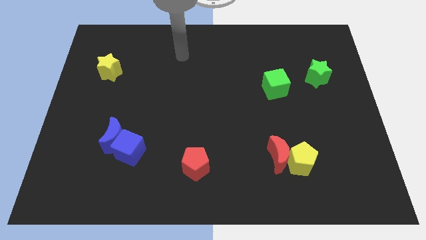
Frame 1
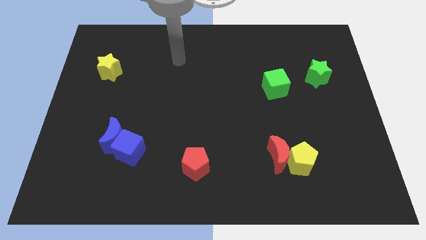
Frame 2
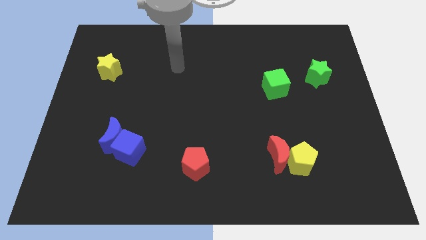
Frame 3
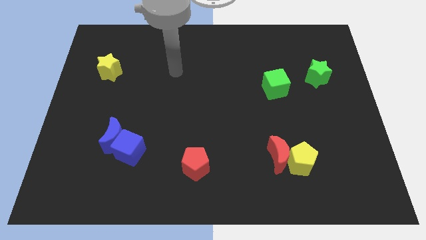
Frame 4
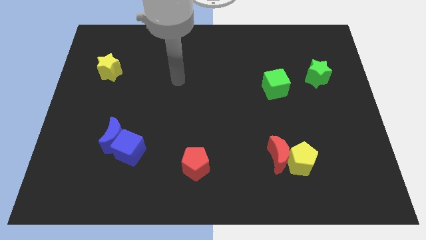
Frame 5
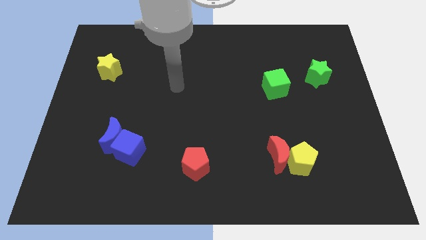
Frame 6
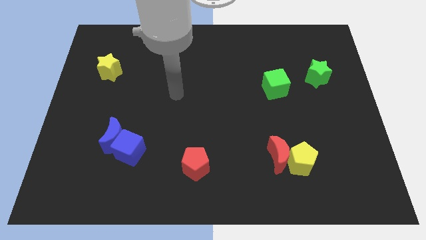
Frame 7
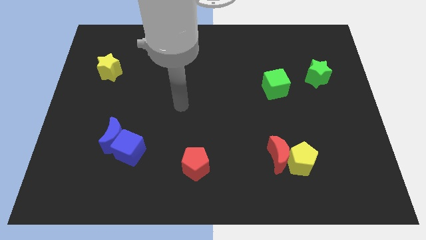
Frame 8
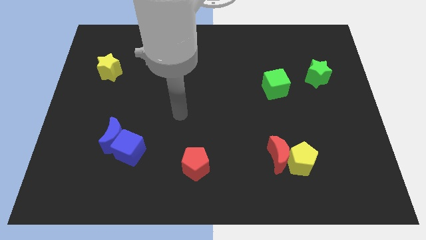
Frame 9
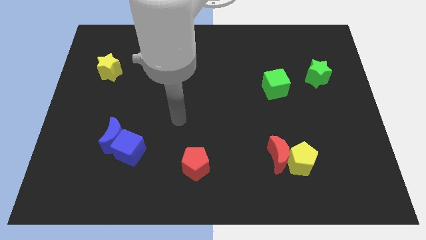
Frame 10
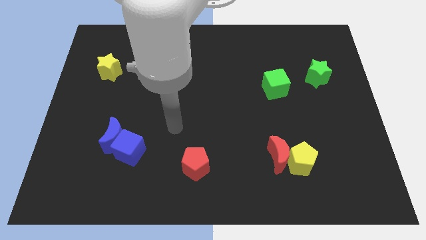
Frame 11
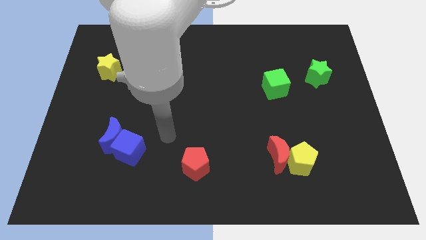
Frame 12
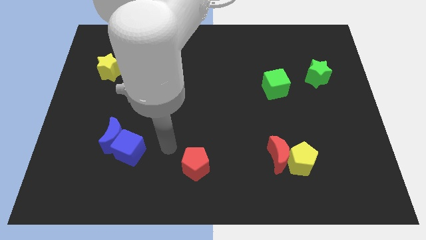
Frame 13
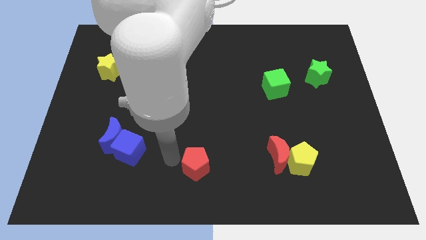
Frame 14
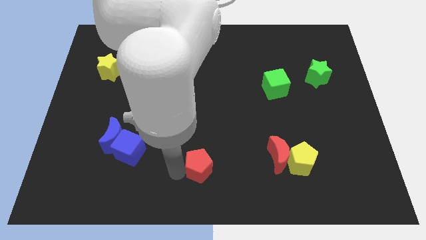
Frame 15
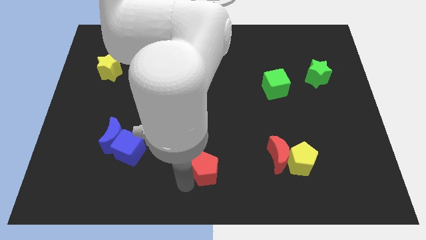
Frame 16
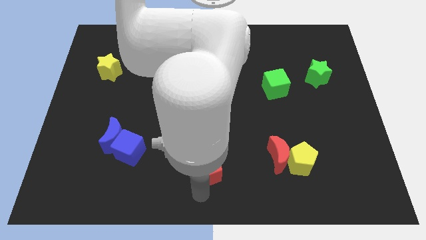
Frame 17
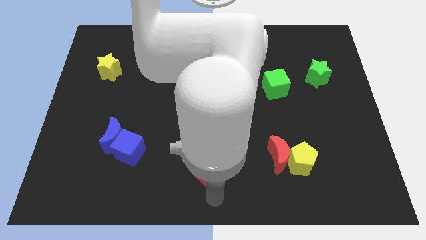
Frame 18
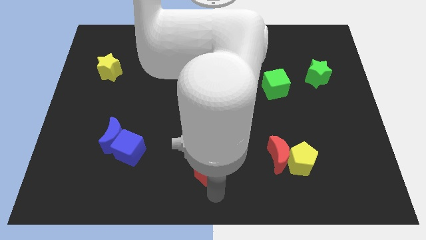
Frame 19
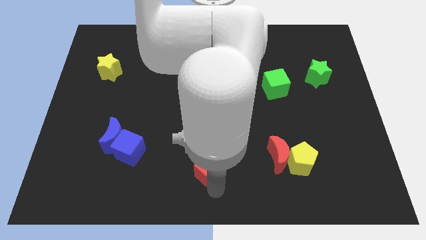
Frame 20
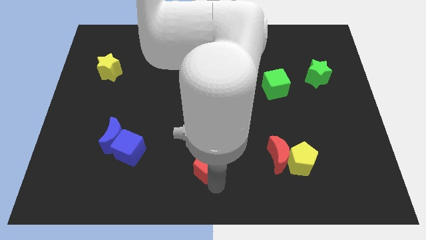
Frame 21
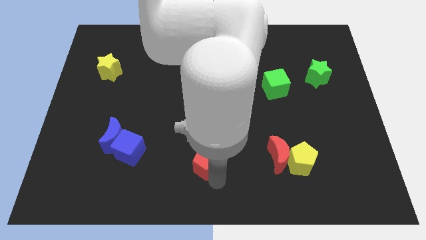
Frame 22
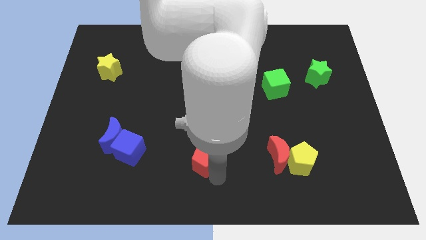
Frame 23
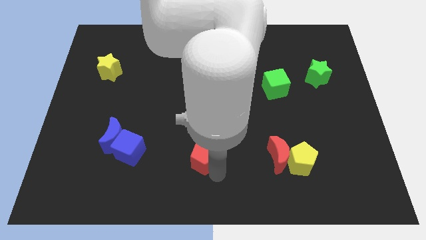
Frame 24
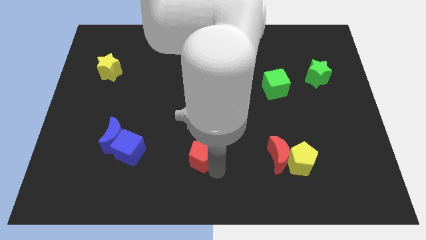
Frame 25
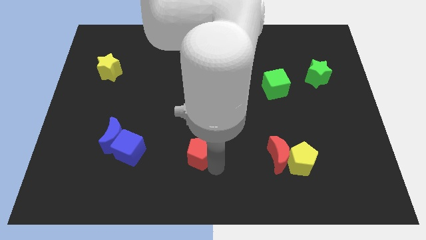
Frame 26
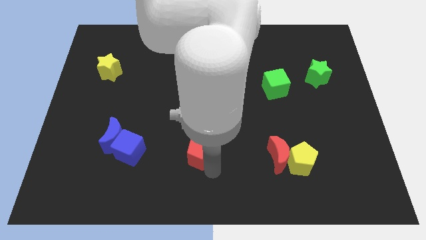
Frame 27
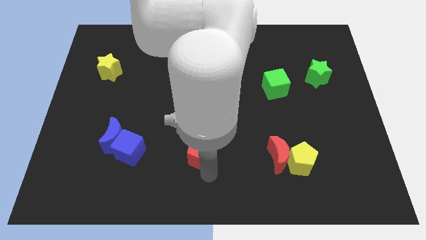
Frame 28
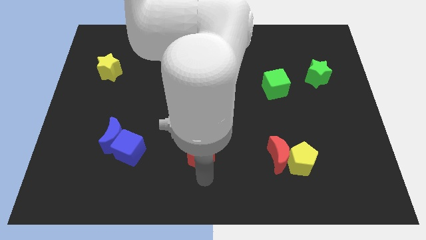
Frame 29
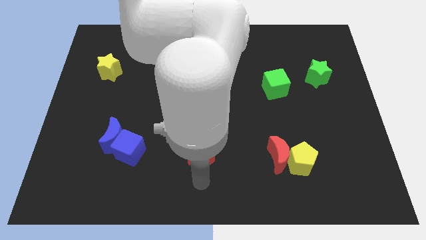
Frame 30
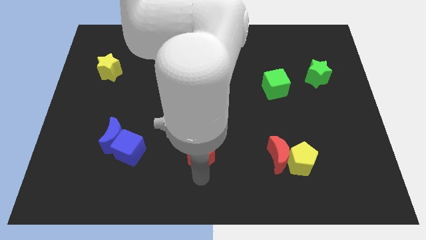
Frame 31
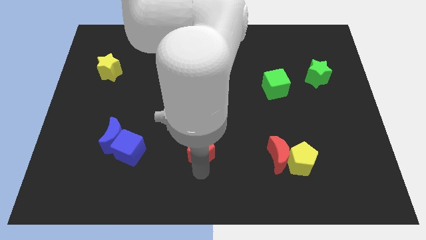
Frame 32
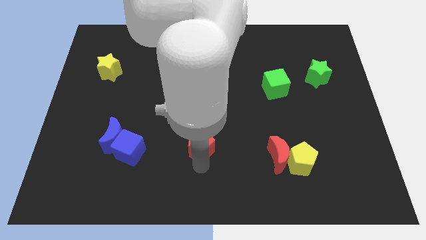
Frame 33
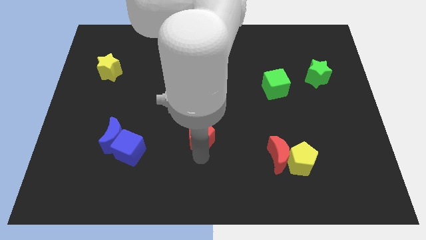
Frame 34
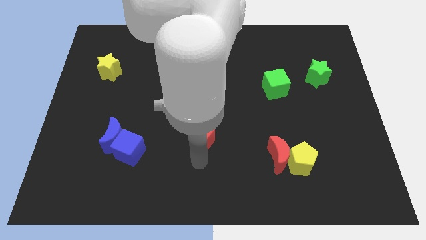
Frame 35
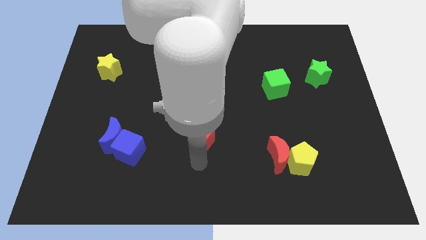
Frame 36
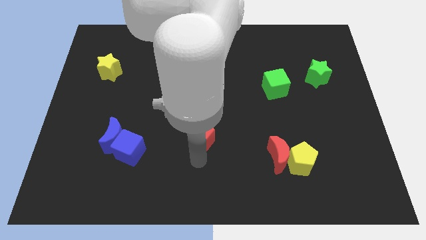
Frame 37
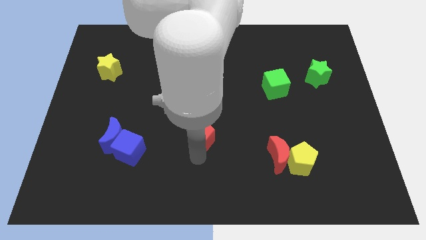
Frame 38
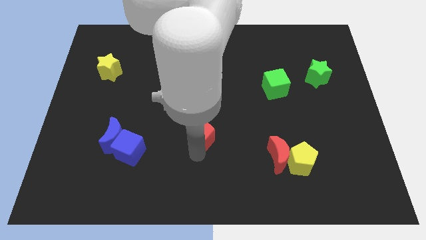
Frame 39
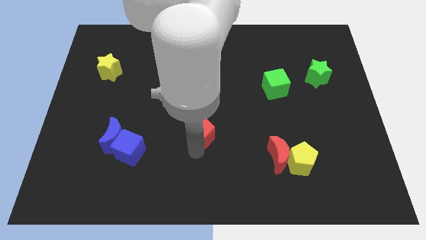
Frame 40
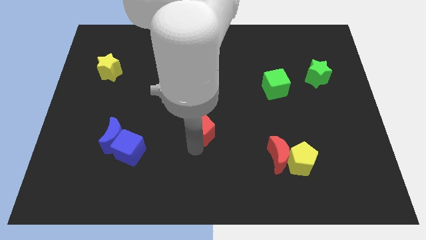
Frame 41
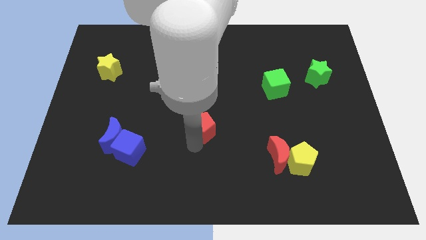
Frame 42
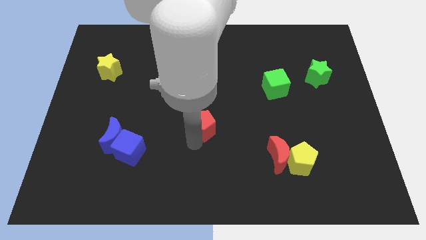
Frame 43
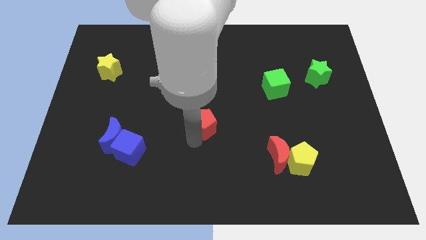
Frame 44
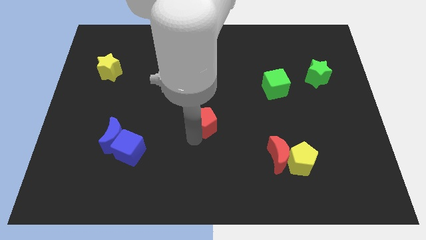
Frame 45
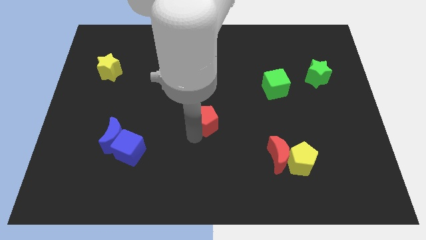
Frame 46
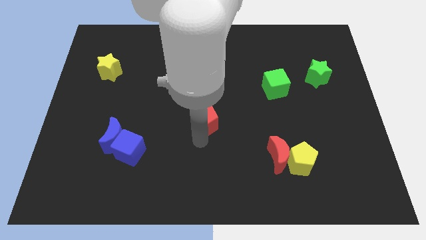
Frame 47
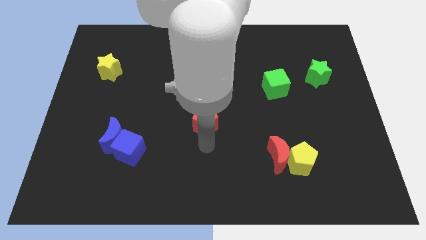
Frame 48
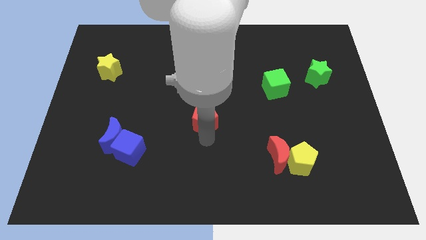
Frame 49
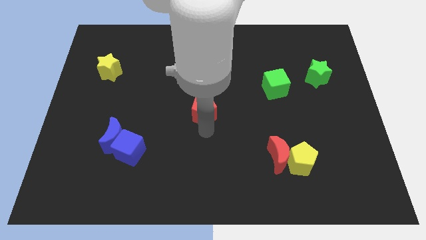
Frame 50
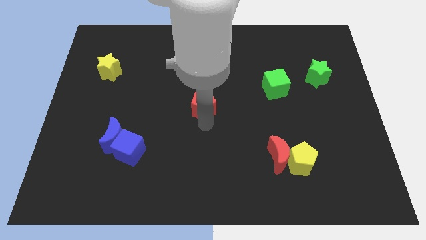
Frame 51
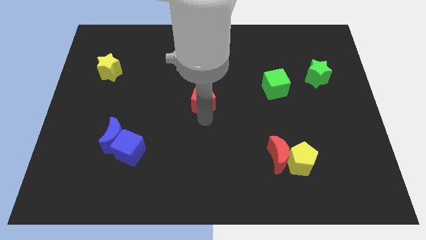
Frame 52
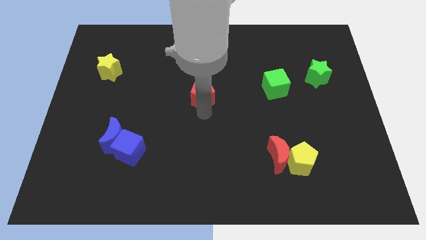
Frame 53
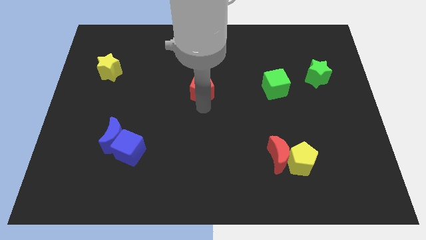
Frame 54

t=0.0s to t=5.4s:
slide the red pentagon upwards

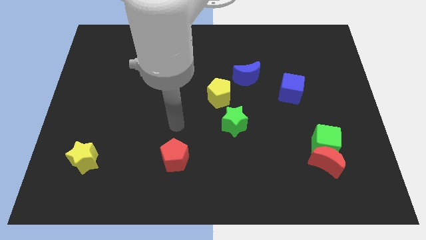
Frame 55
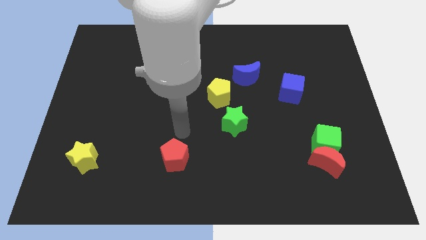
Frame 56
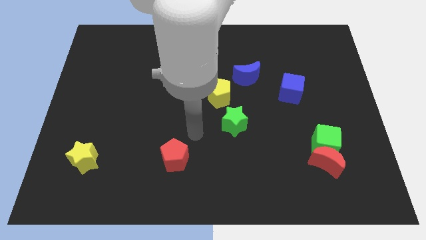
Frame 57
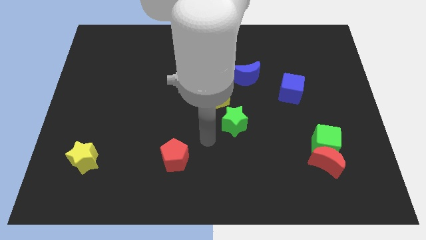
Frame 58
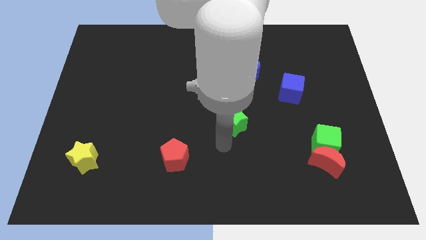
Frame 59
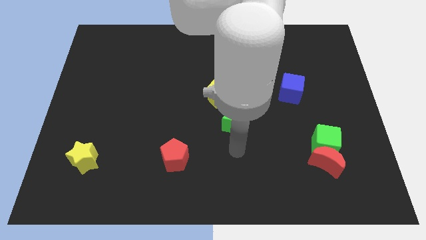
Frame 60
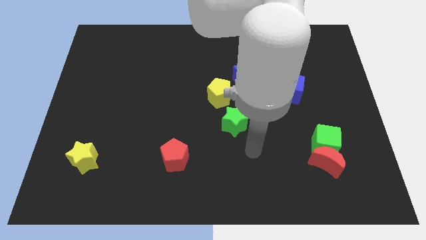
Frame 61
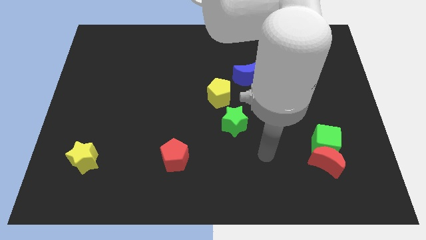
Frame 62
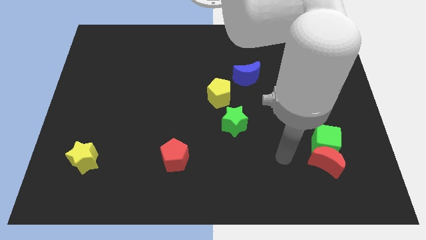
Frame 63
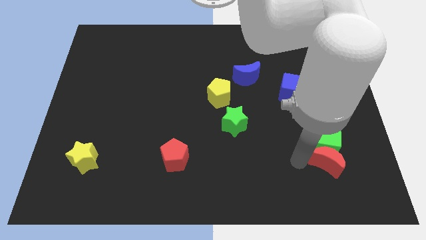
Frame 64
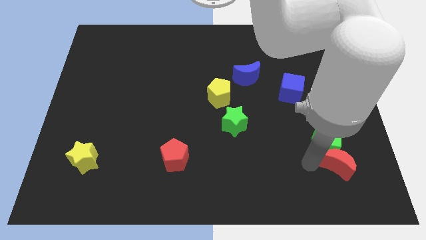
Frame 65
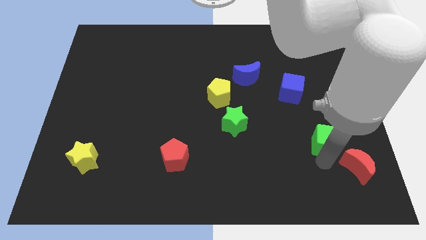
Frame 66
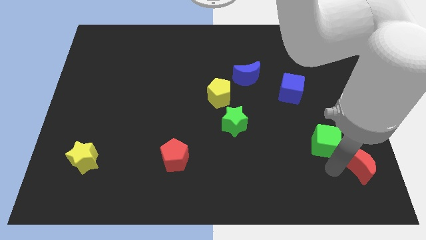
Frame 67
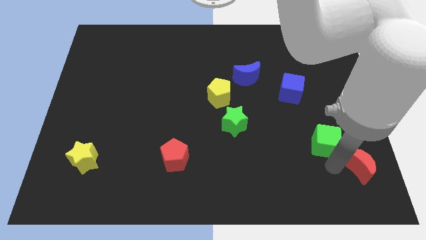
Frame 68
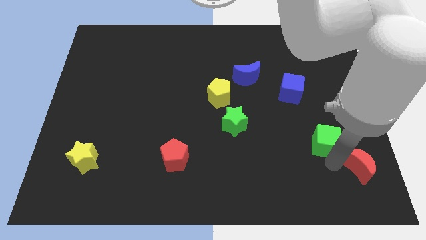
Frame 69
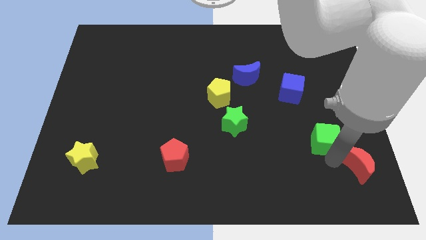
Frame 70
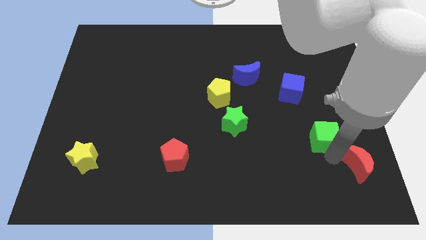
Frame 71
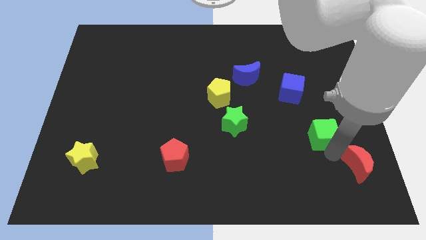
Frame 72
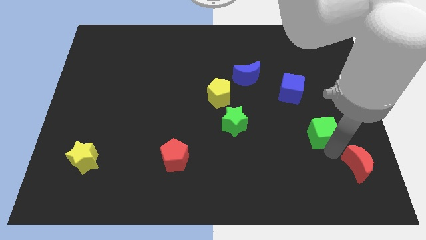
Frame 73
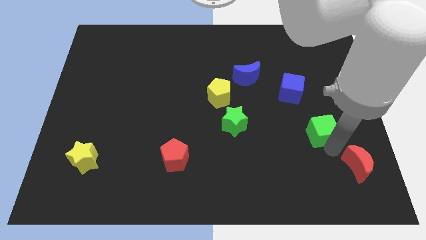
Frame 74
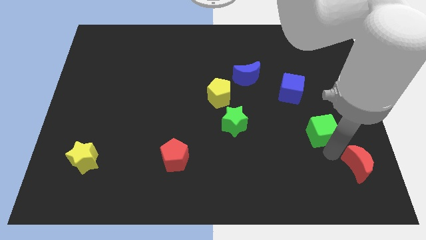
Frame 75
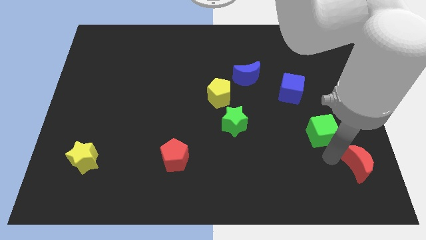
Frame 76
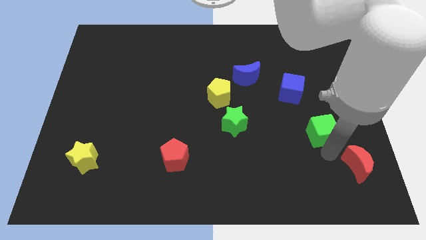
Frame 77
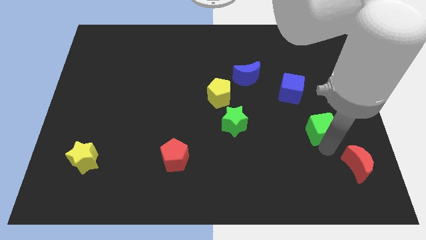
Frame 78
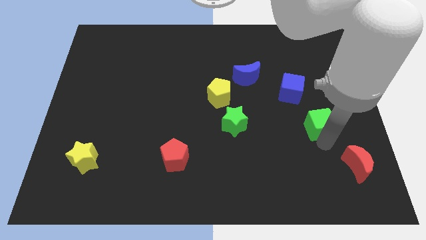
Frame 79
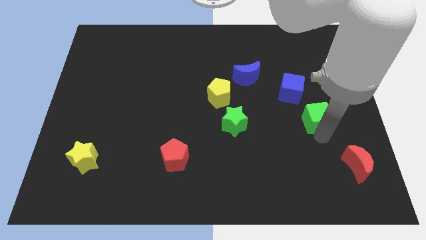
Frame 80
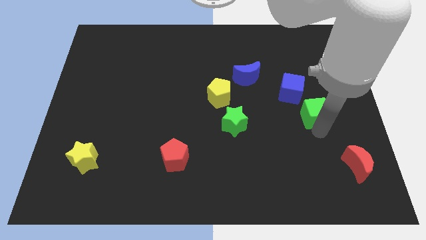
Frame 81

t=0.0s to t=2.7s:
slightly move the green cube up
